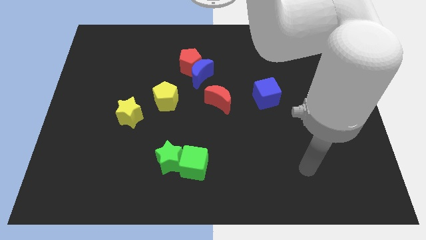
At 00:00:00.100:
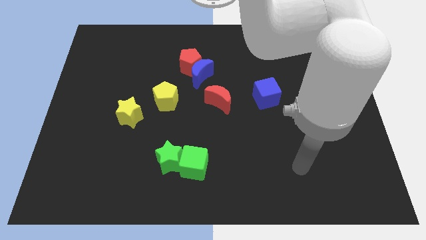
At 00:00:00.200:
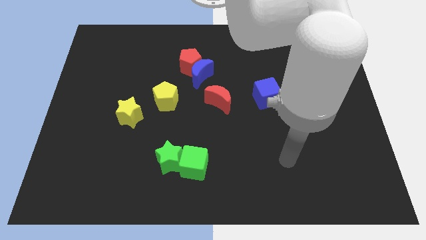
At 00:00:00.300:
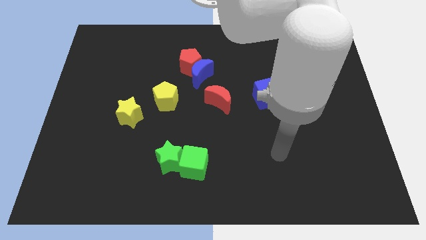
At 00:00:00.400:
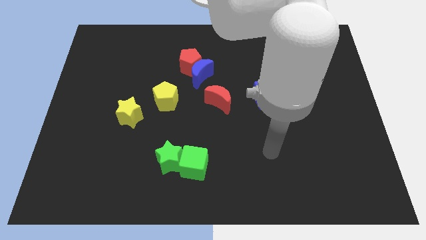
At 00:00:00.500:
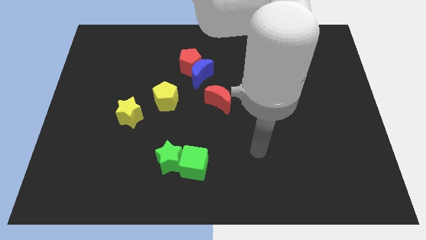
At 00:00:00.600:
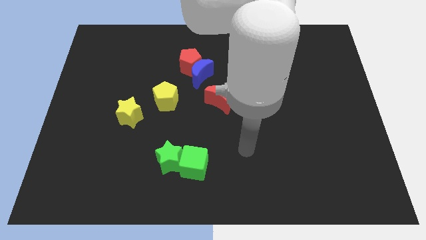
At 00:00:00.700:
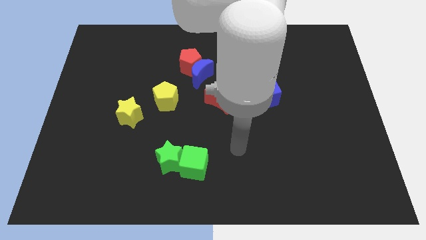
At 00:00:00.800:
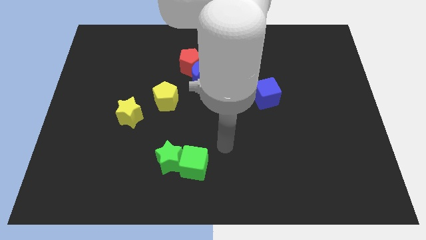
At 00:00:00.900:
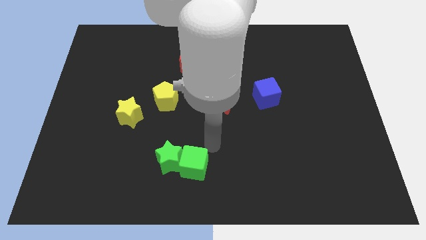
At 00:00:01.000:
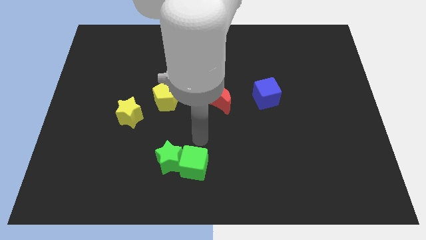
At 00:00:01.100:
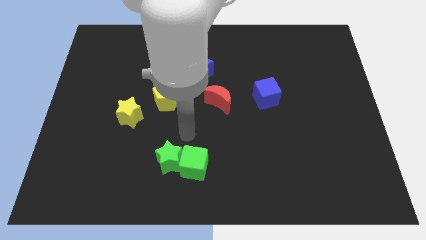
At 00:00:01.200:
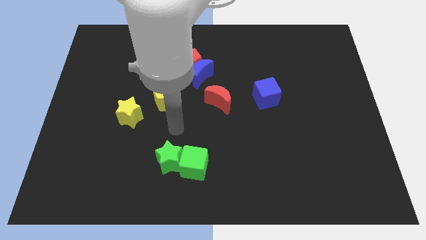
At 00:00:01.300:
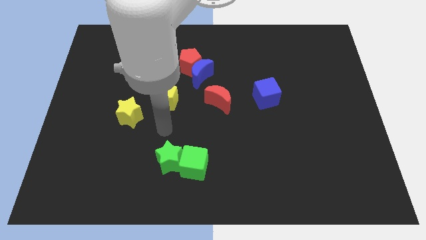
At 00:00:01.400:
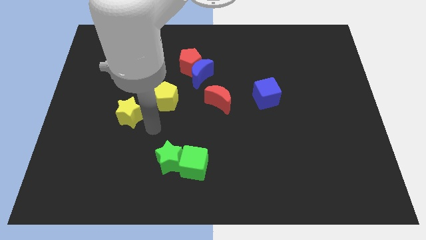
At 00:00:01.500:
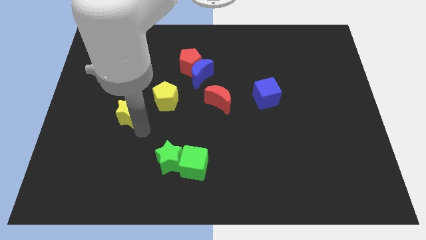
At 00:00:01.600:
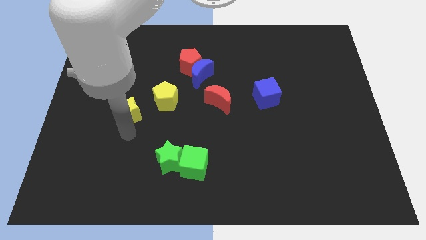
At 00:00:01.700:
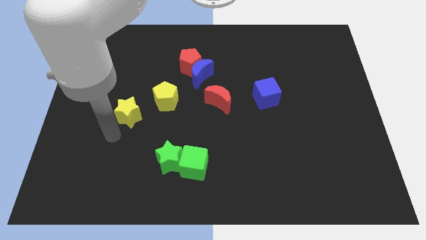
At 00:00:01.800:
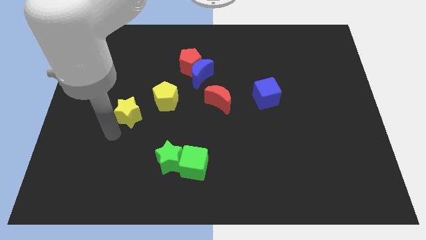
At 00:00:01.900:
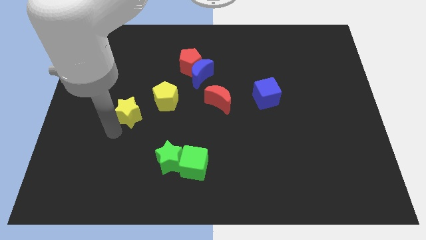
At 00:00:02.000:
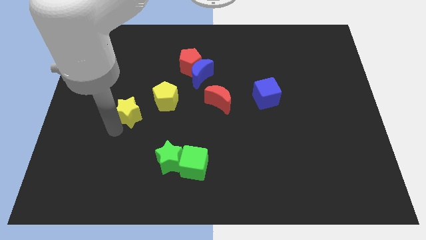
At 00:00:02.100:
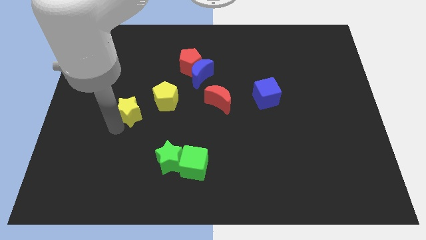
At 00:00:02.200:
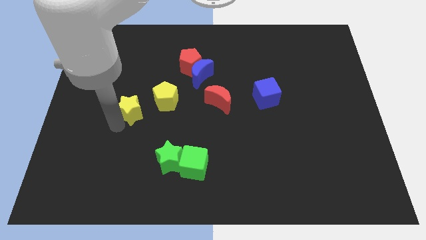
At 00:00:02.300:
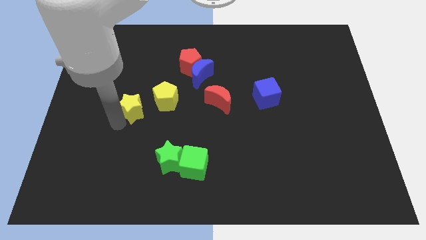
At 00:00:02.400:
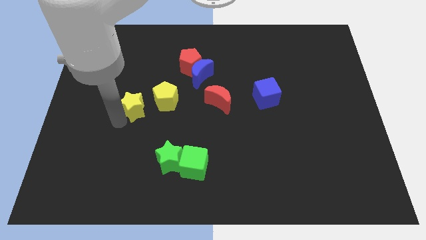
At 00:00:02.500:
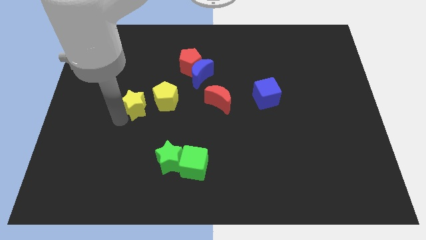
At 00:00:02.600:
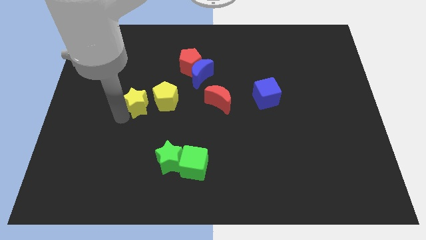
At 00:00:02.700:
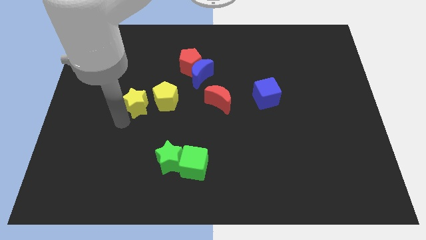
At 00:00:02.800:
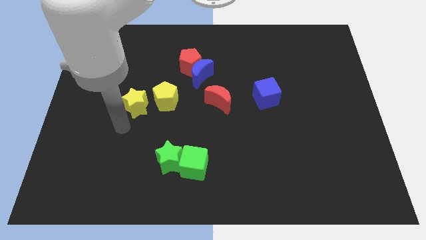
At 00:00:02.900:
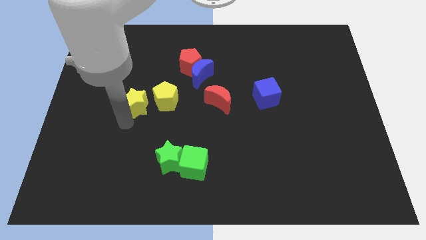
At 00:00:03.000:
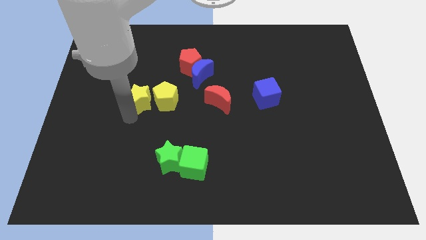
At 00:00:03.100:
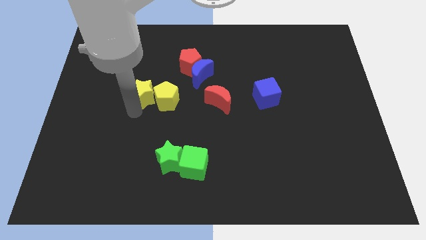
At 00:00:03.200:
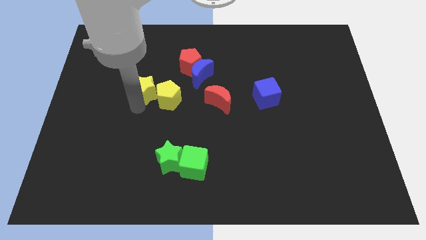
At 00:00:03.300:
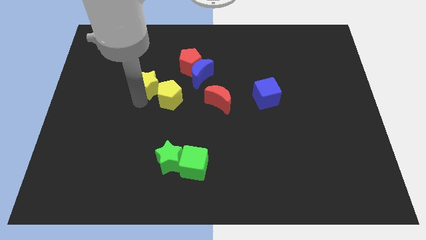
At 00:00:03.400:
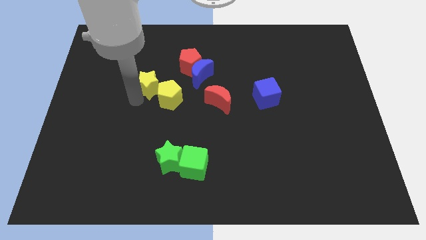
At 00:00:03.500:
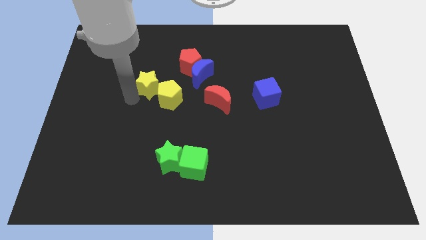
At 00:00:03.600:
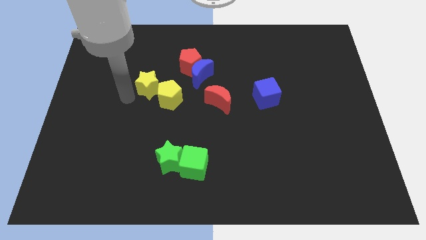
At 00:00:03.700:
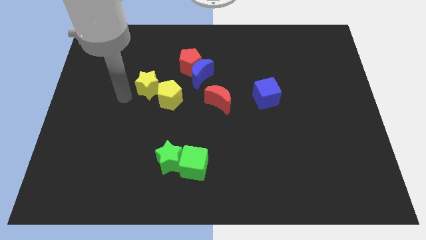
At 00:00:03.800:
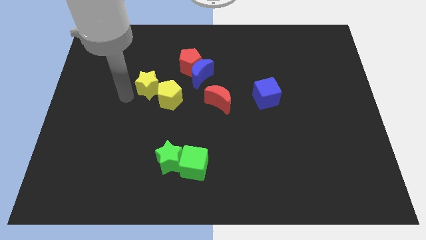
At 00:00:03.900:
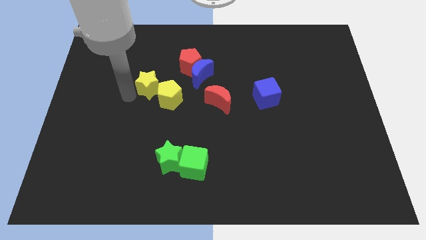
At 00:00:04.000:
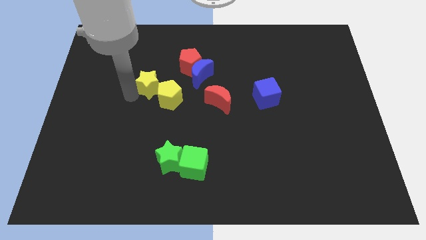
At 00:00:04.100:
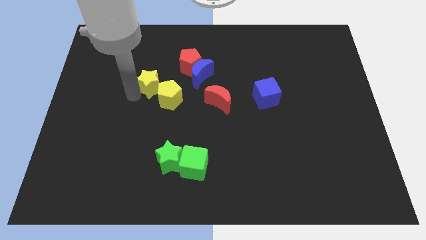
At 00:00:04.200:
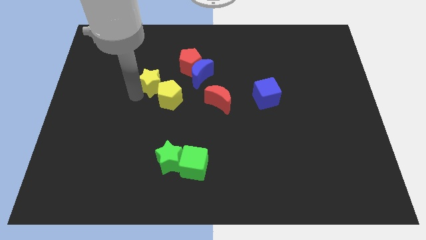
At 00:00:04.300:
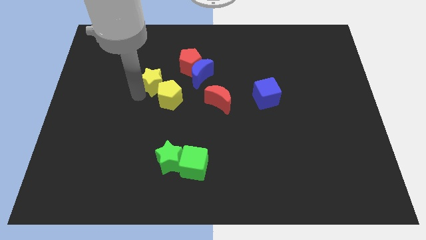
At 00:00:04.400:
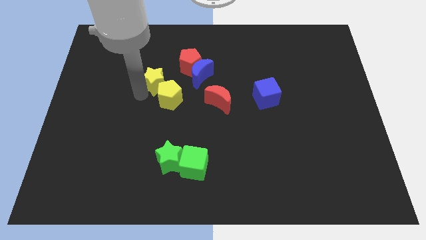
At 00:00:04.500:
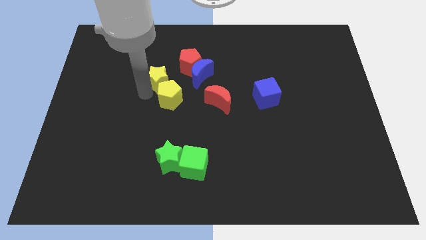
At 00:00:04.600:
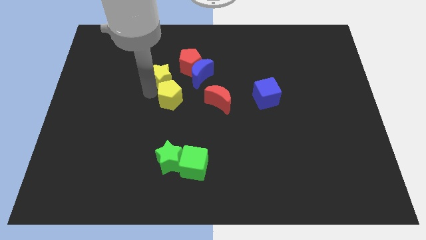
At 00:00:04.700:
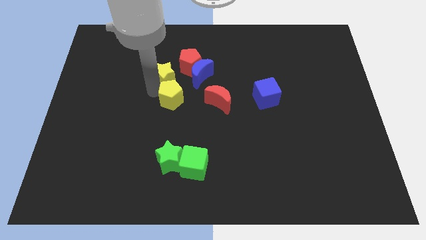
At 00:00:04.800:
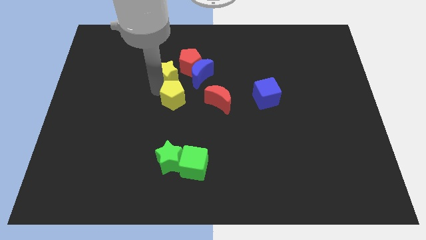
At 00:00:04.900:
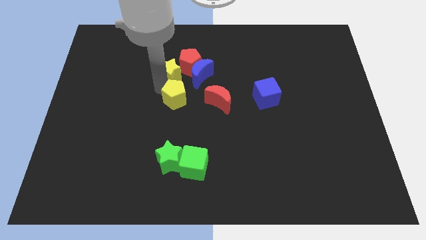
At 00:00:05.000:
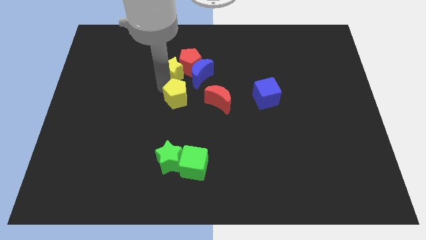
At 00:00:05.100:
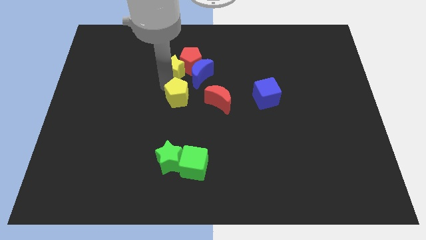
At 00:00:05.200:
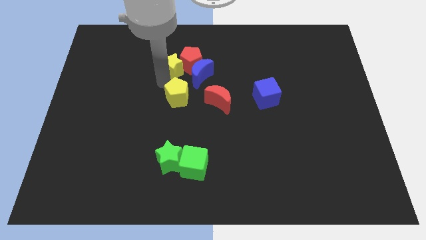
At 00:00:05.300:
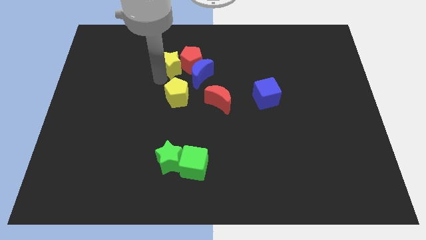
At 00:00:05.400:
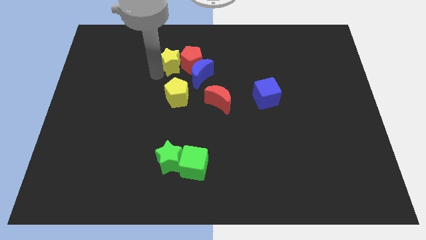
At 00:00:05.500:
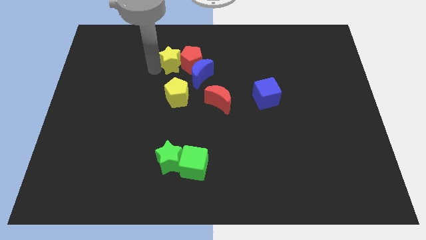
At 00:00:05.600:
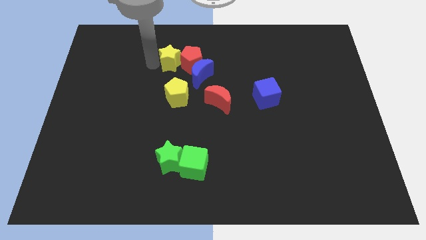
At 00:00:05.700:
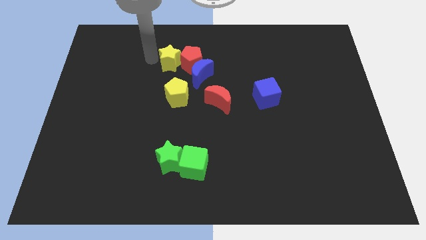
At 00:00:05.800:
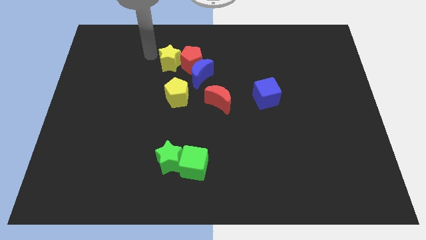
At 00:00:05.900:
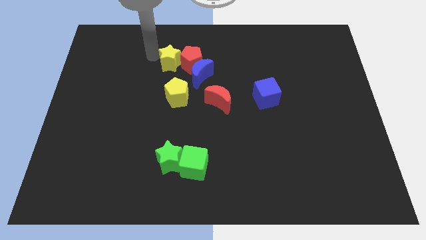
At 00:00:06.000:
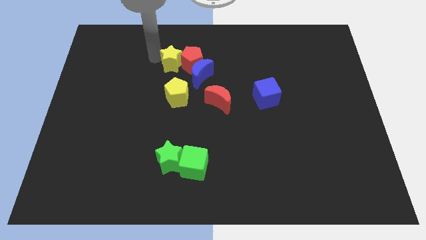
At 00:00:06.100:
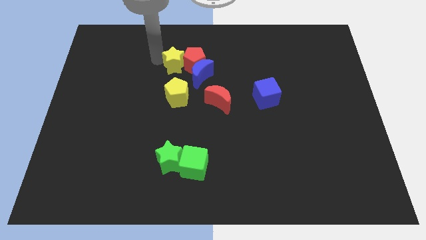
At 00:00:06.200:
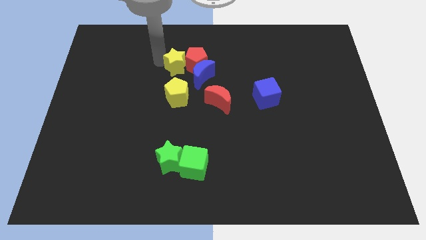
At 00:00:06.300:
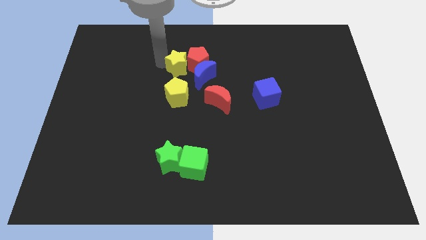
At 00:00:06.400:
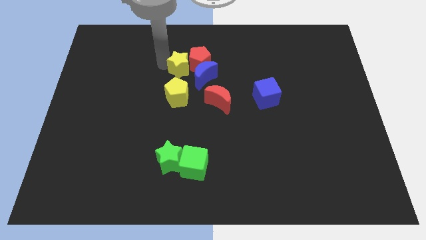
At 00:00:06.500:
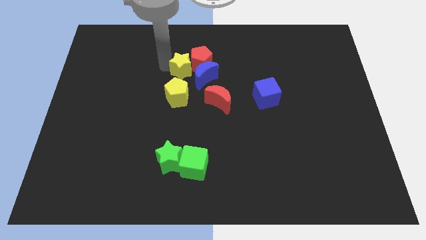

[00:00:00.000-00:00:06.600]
put the yellow star towards the blue moon

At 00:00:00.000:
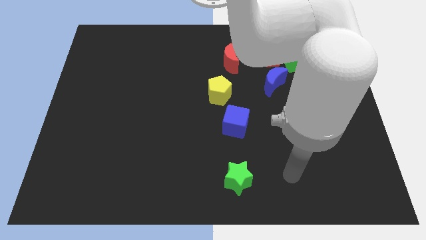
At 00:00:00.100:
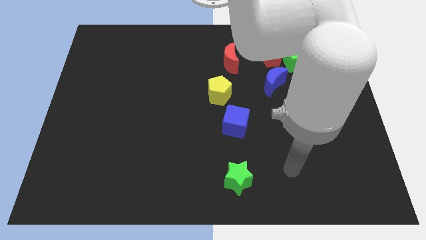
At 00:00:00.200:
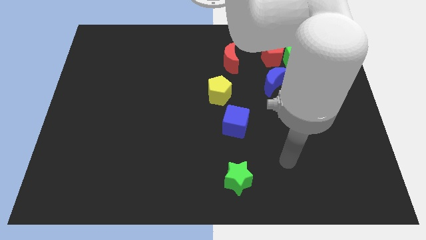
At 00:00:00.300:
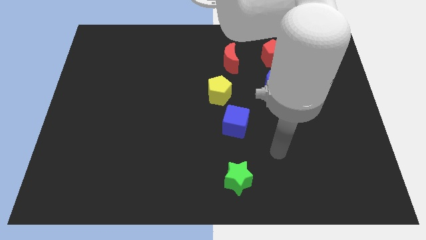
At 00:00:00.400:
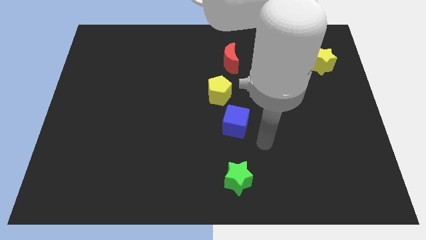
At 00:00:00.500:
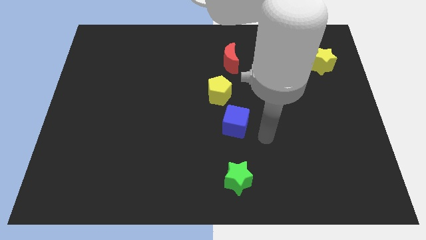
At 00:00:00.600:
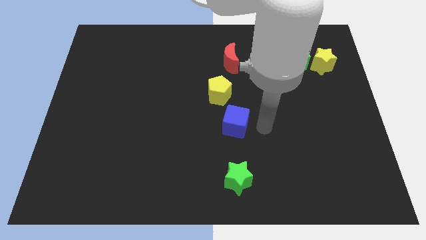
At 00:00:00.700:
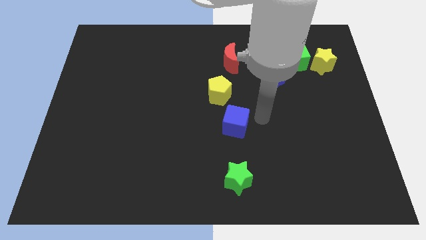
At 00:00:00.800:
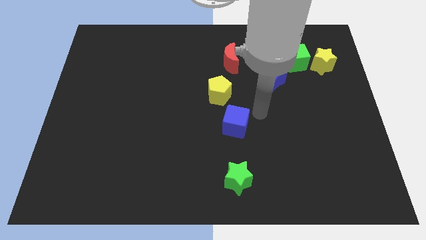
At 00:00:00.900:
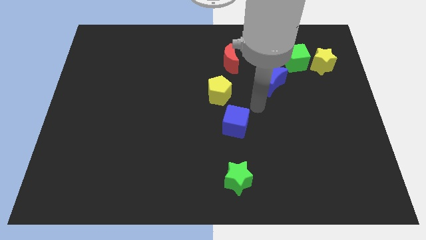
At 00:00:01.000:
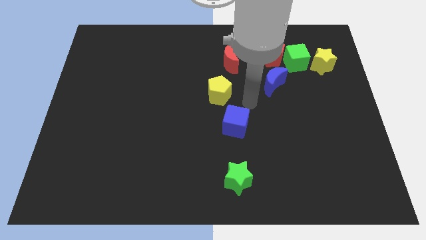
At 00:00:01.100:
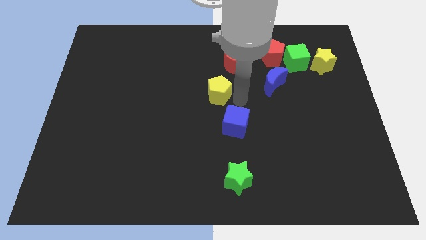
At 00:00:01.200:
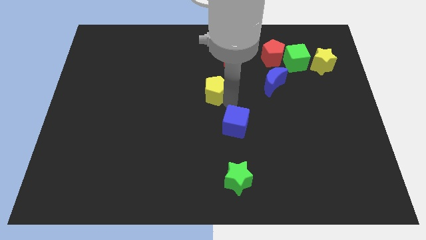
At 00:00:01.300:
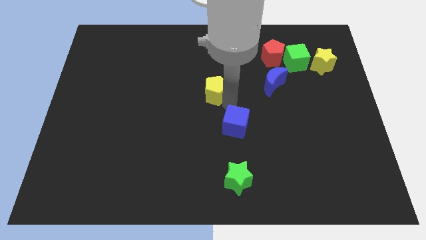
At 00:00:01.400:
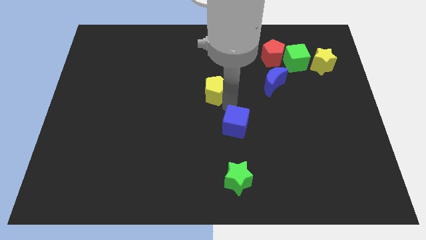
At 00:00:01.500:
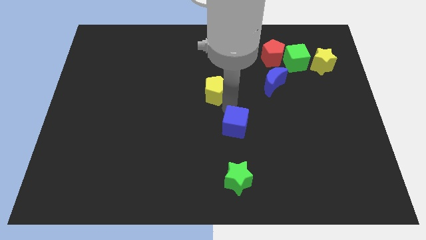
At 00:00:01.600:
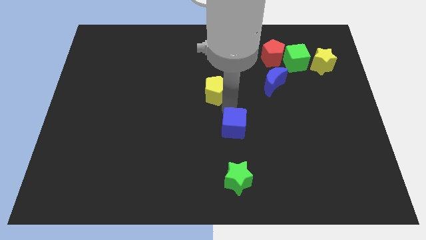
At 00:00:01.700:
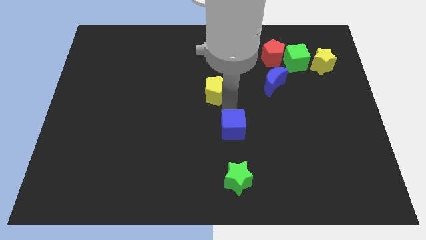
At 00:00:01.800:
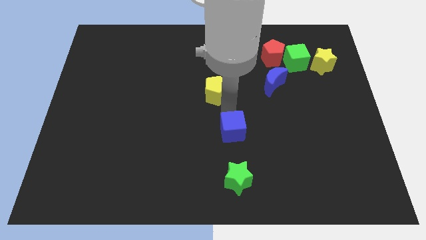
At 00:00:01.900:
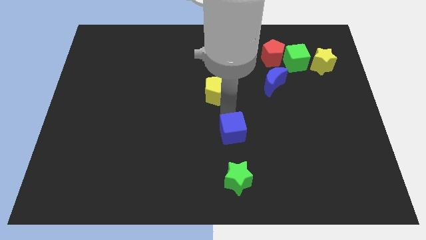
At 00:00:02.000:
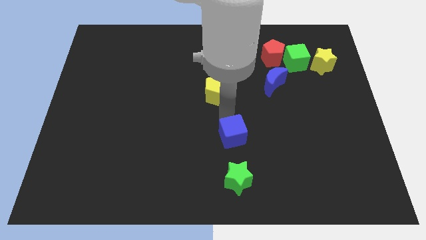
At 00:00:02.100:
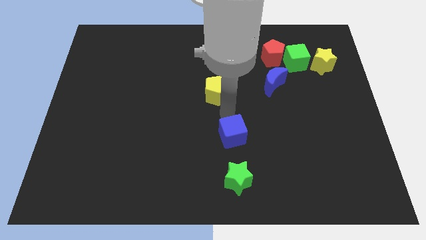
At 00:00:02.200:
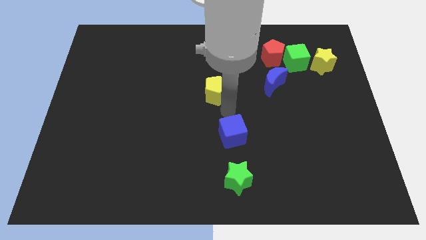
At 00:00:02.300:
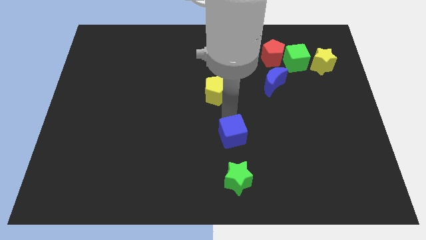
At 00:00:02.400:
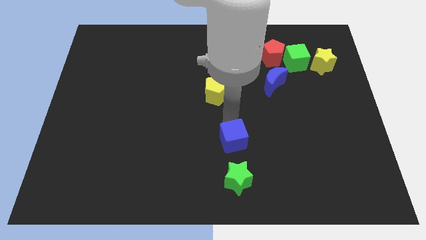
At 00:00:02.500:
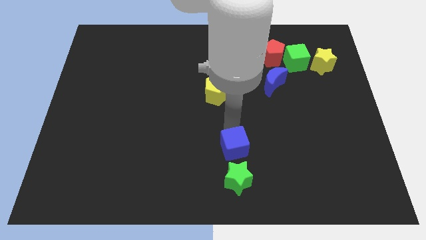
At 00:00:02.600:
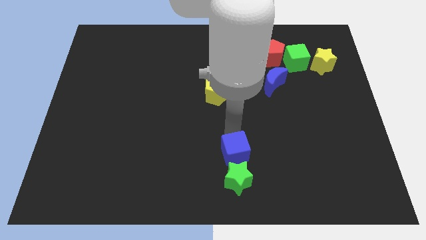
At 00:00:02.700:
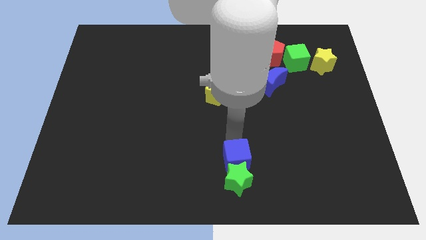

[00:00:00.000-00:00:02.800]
slide the blue cube next to the green star
